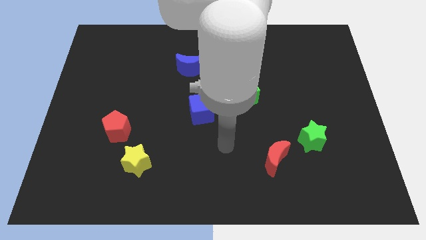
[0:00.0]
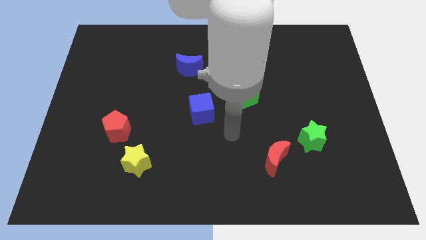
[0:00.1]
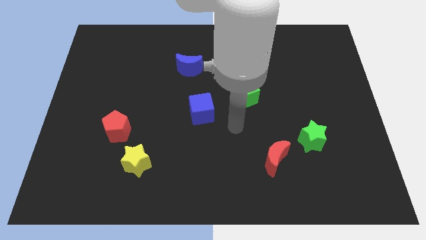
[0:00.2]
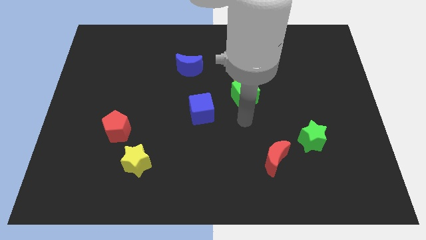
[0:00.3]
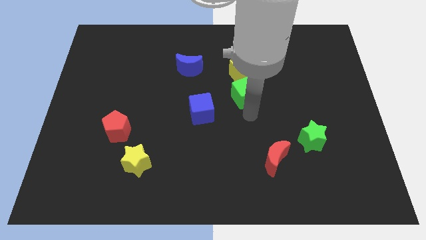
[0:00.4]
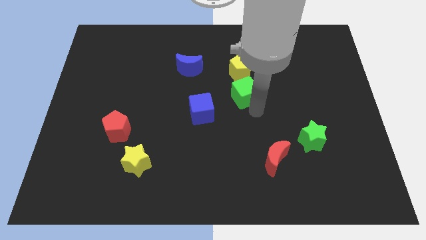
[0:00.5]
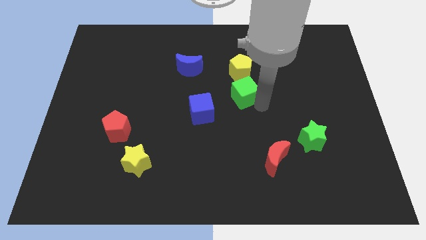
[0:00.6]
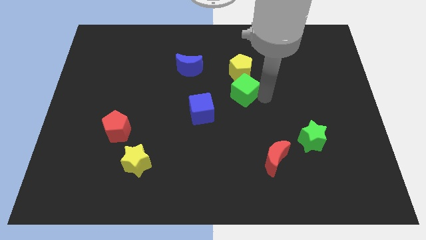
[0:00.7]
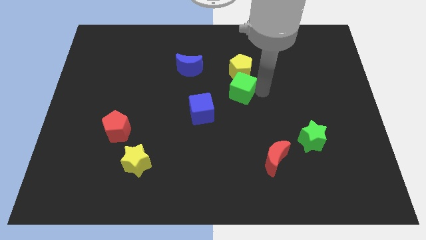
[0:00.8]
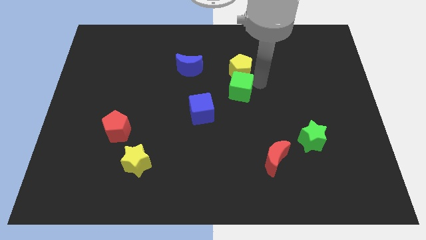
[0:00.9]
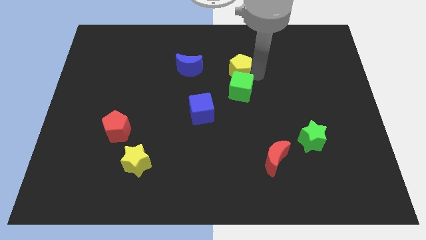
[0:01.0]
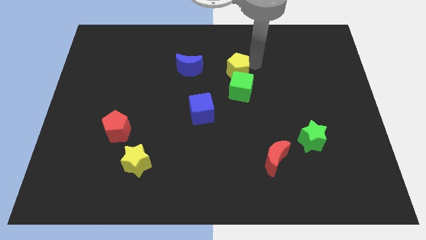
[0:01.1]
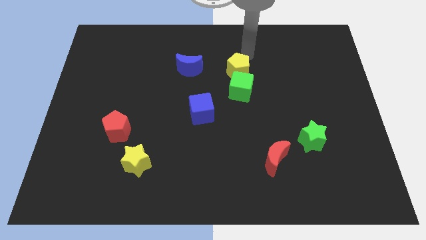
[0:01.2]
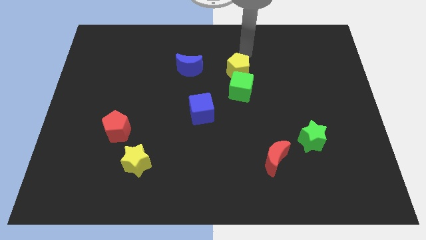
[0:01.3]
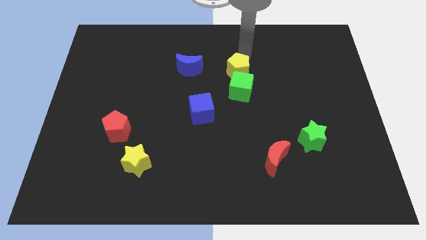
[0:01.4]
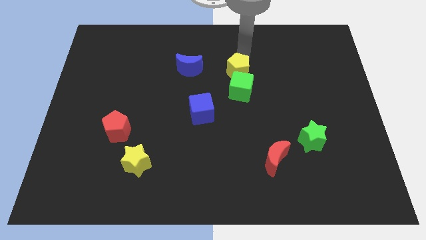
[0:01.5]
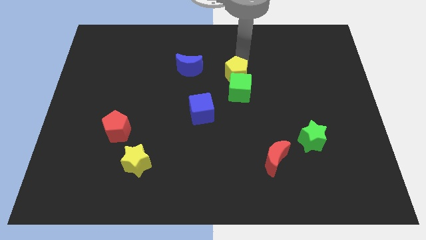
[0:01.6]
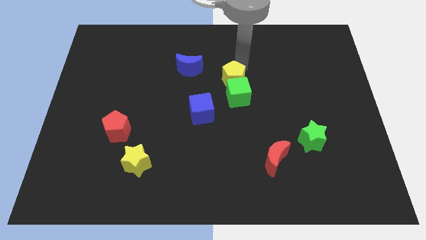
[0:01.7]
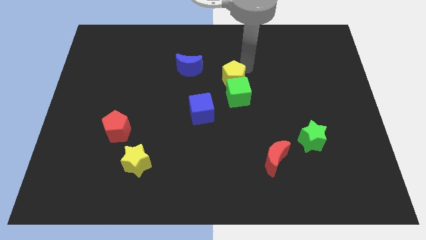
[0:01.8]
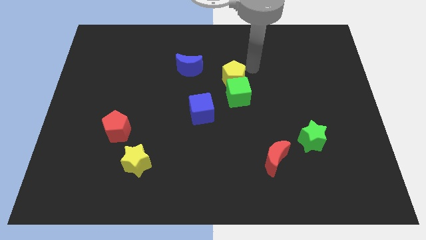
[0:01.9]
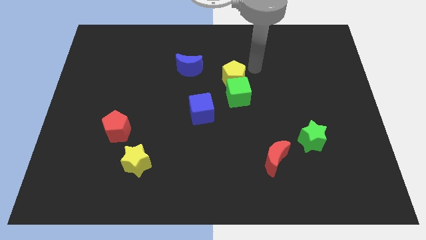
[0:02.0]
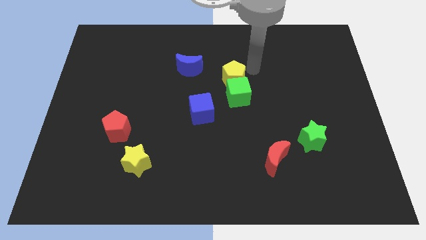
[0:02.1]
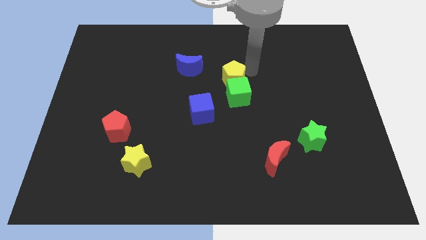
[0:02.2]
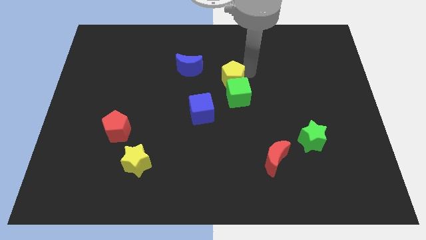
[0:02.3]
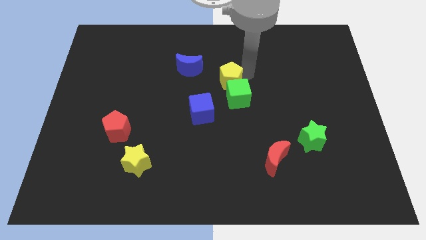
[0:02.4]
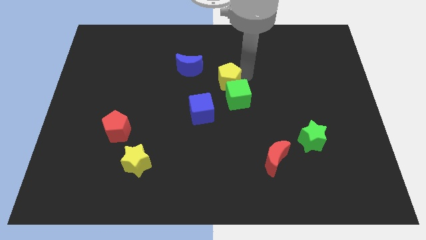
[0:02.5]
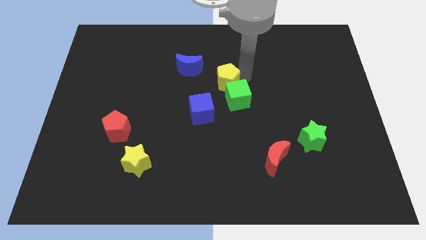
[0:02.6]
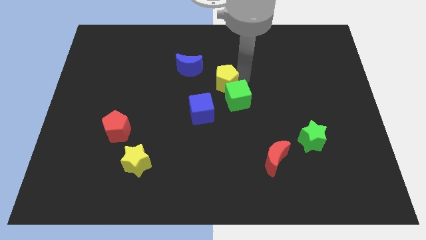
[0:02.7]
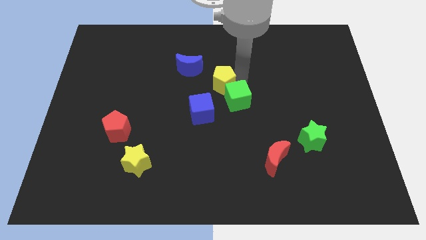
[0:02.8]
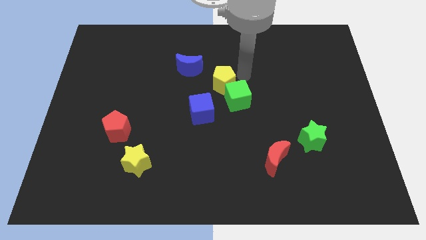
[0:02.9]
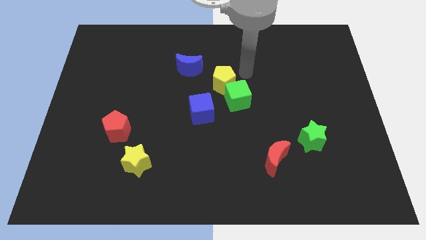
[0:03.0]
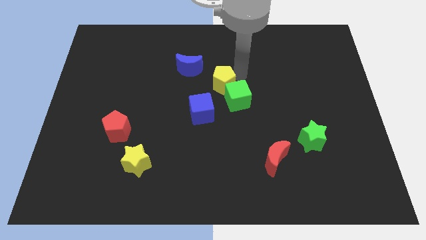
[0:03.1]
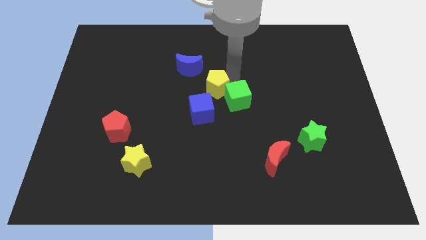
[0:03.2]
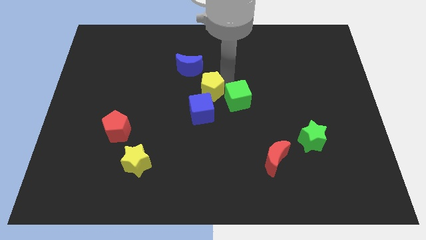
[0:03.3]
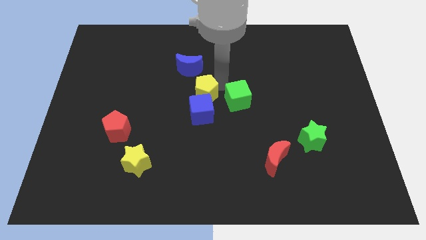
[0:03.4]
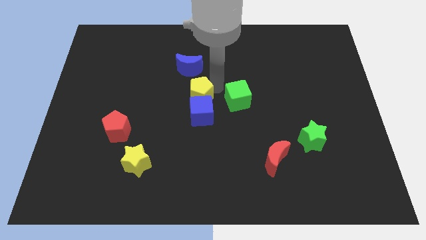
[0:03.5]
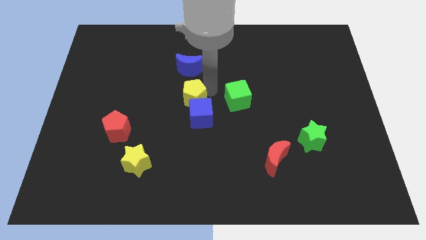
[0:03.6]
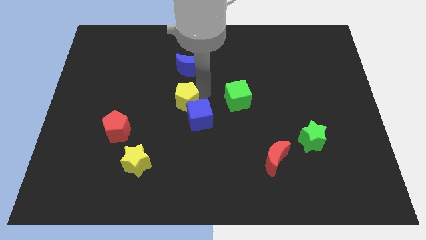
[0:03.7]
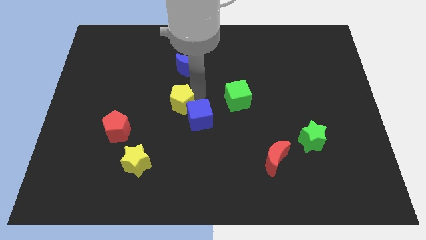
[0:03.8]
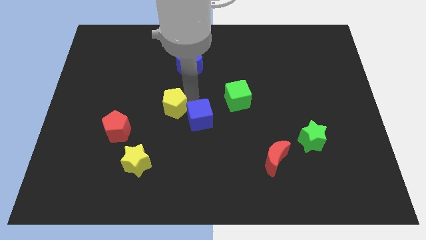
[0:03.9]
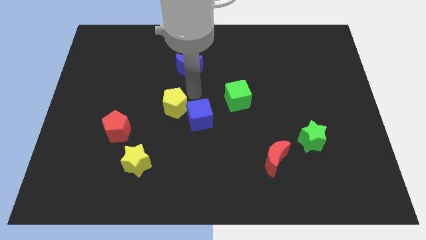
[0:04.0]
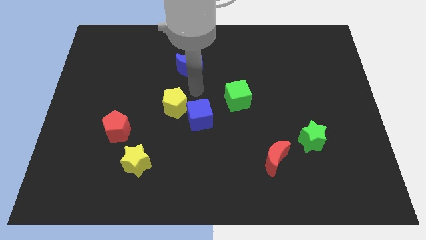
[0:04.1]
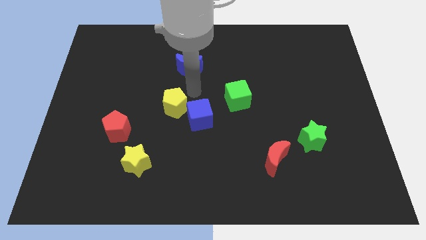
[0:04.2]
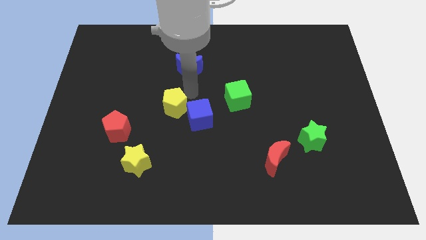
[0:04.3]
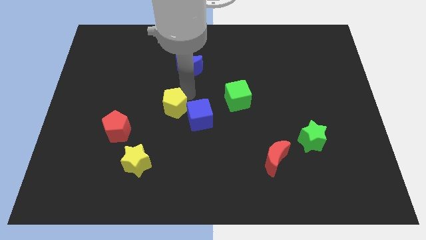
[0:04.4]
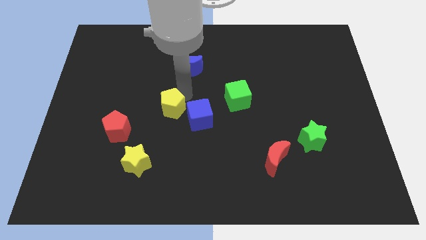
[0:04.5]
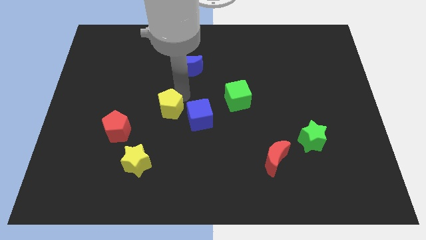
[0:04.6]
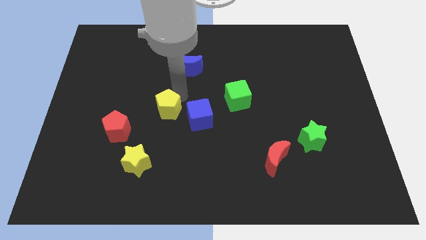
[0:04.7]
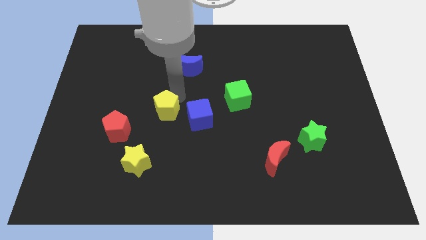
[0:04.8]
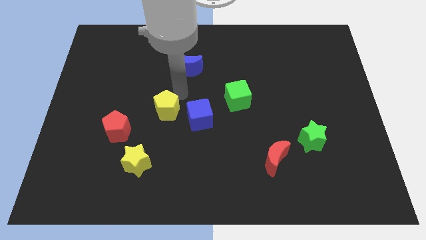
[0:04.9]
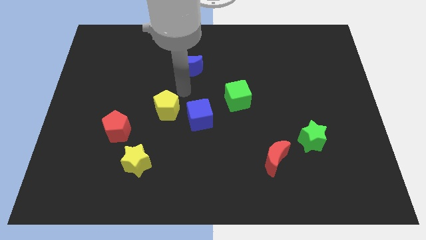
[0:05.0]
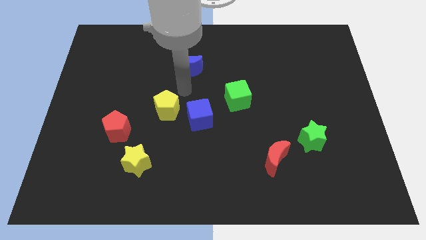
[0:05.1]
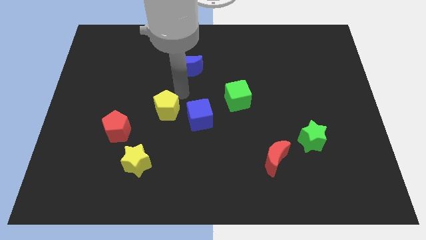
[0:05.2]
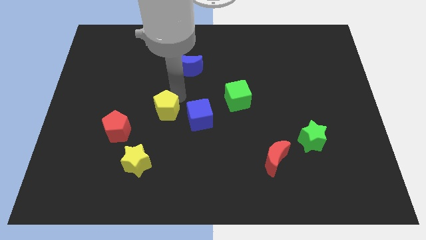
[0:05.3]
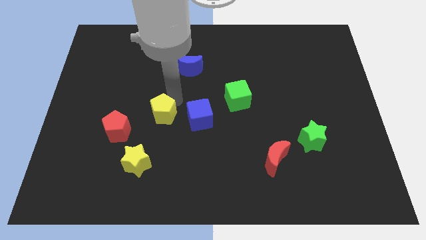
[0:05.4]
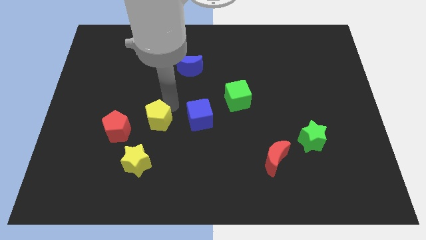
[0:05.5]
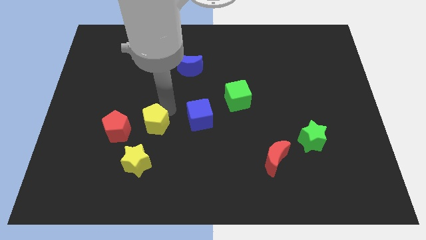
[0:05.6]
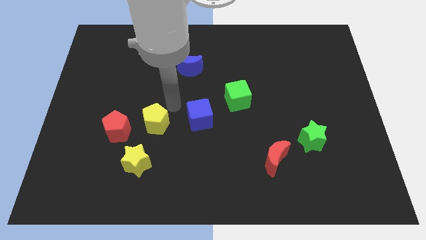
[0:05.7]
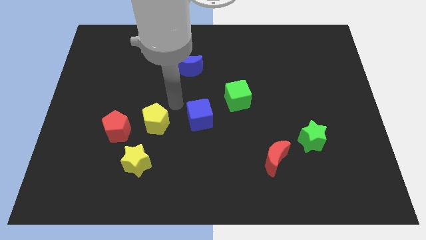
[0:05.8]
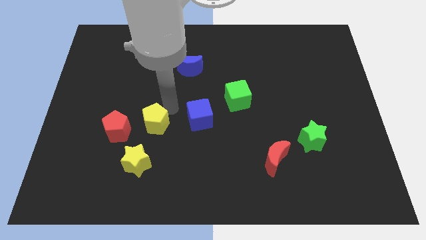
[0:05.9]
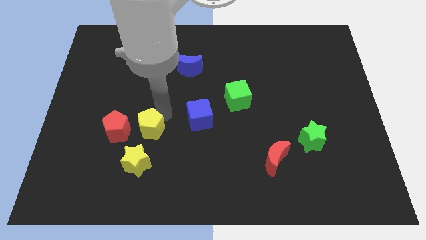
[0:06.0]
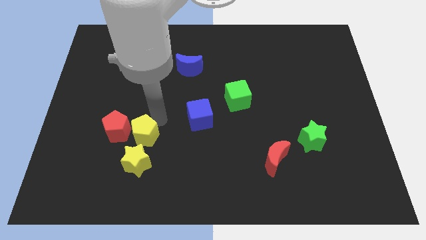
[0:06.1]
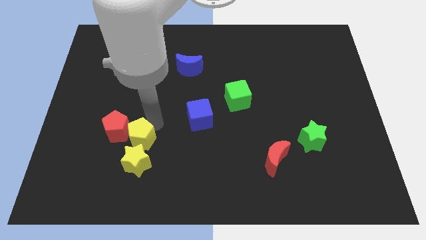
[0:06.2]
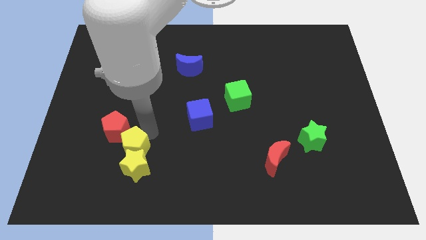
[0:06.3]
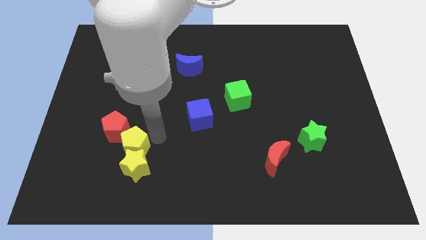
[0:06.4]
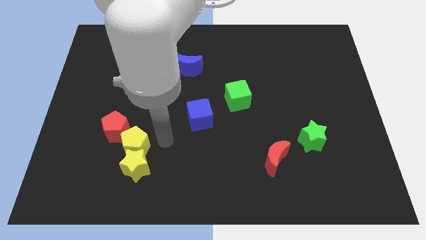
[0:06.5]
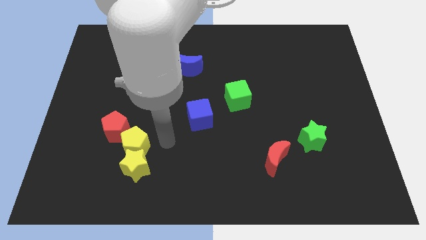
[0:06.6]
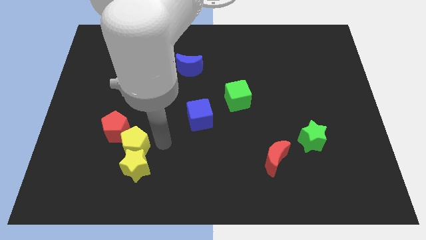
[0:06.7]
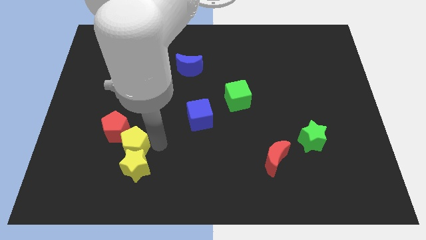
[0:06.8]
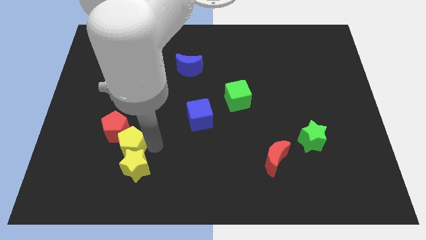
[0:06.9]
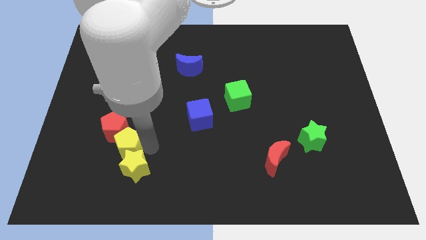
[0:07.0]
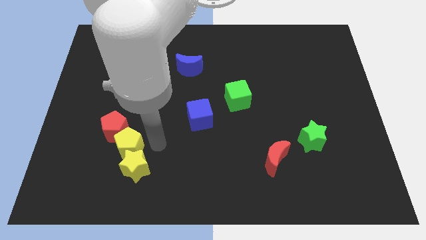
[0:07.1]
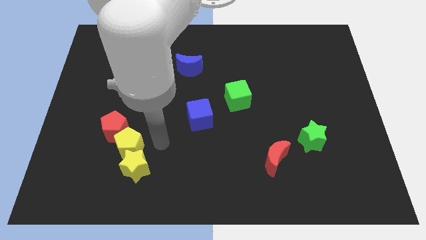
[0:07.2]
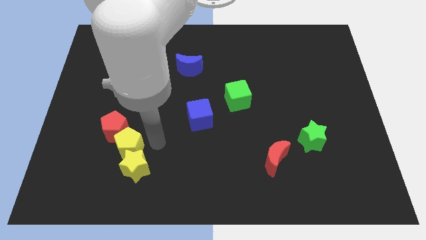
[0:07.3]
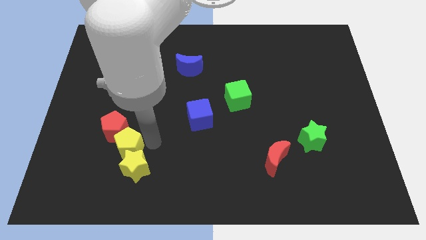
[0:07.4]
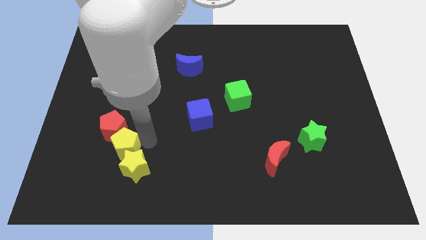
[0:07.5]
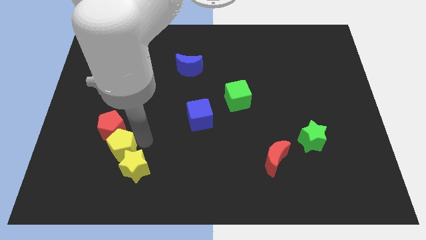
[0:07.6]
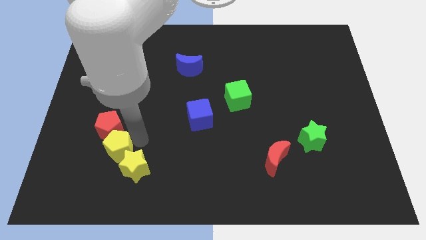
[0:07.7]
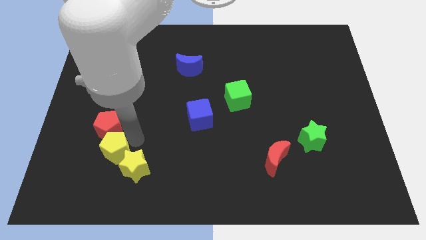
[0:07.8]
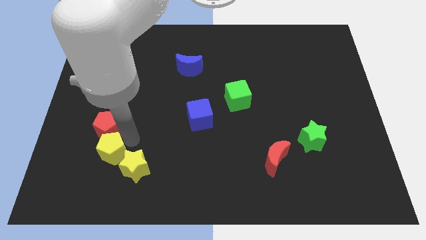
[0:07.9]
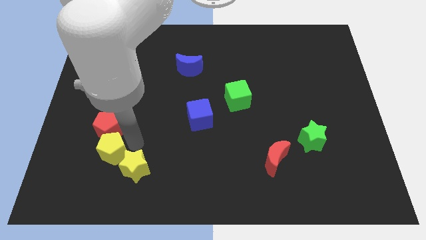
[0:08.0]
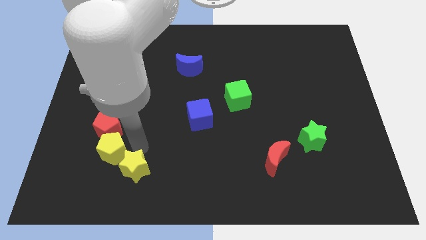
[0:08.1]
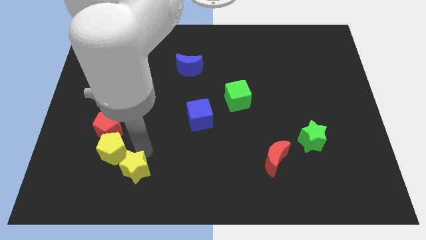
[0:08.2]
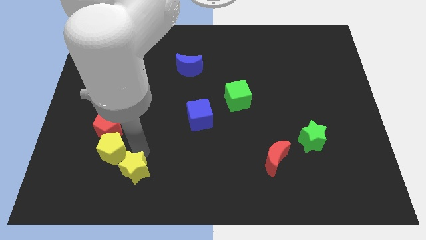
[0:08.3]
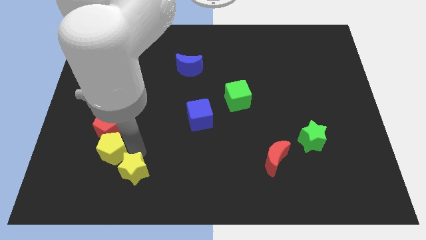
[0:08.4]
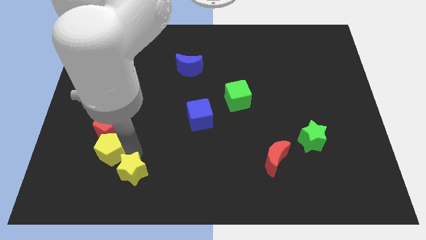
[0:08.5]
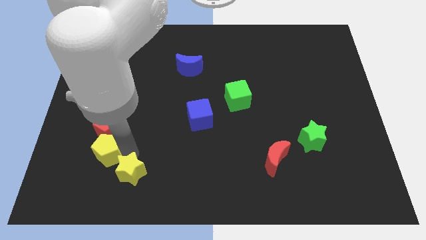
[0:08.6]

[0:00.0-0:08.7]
slide the yellow pentagon diagonally down and to the left of the red pentagon
